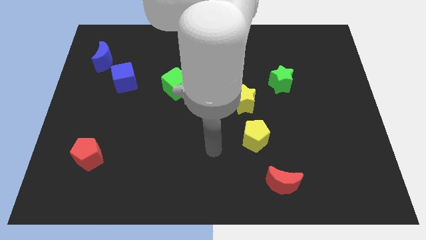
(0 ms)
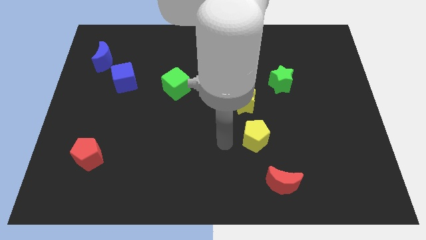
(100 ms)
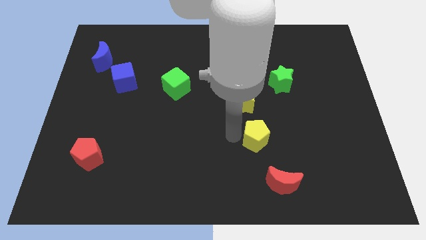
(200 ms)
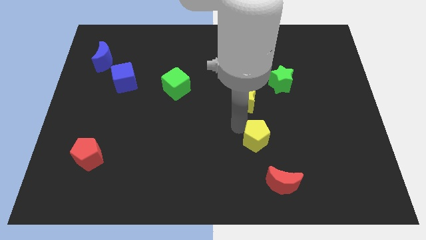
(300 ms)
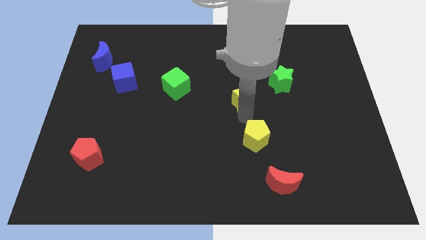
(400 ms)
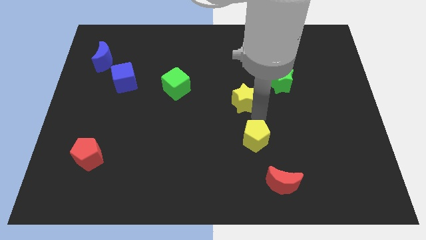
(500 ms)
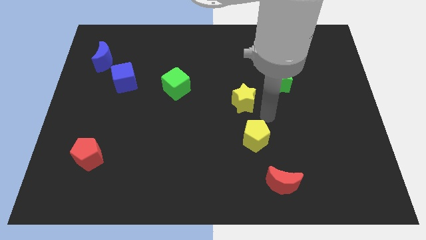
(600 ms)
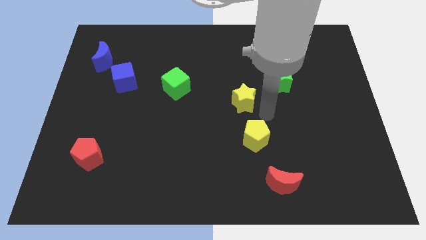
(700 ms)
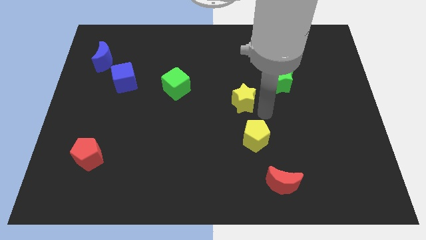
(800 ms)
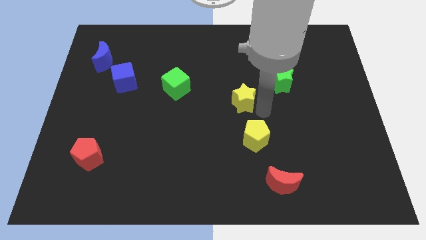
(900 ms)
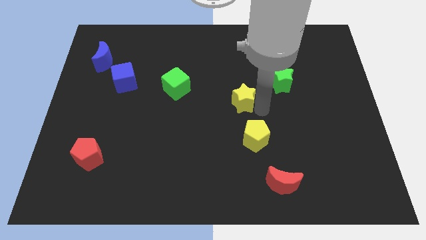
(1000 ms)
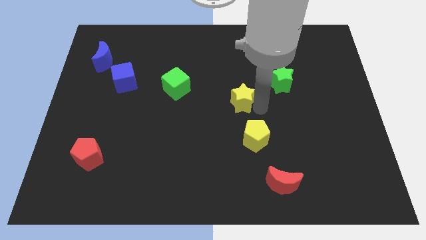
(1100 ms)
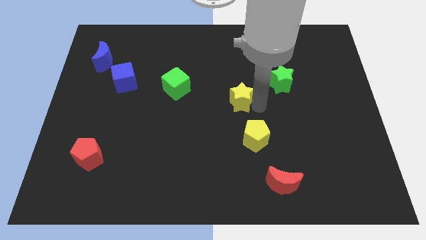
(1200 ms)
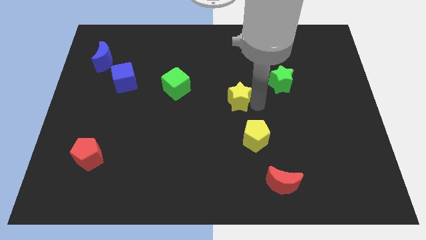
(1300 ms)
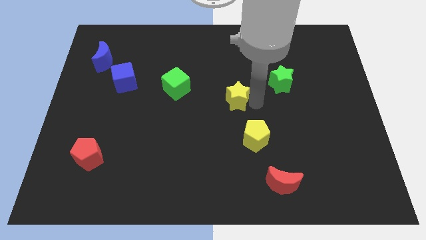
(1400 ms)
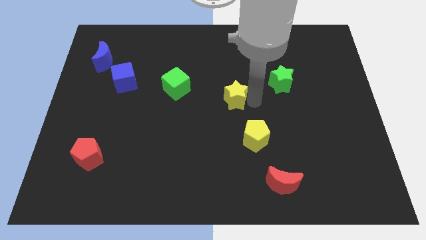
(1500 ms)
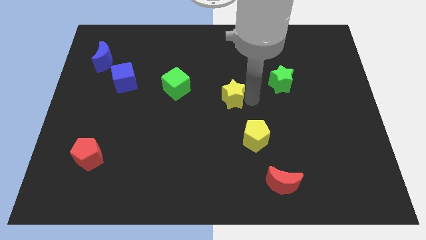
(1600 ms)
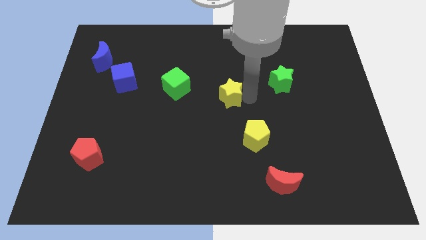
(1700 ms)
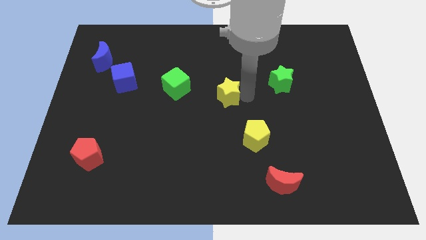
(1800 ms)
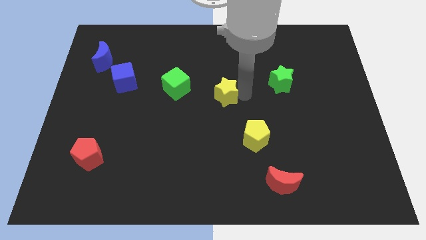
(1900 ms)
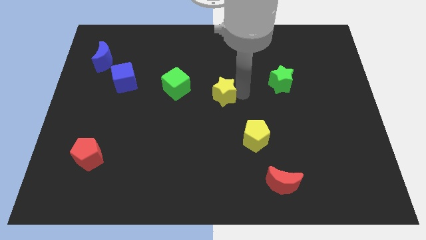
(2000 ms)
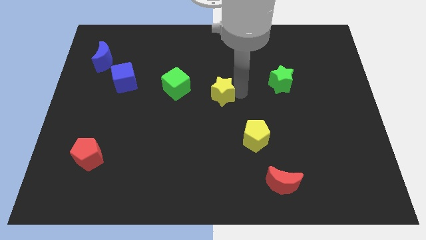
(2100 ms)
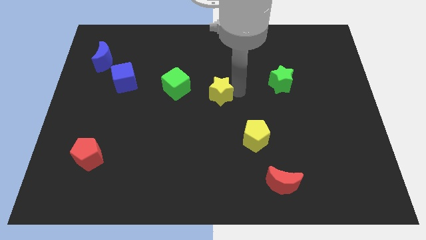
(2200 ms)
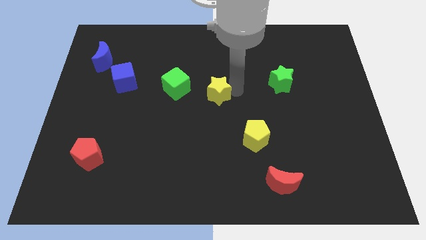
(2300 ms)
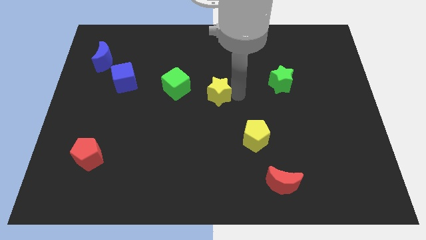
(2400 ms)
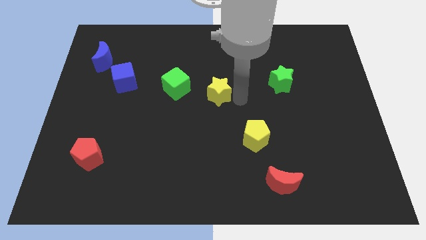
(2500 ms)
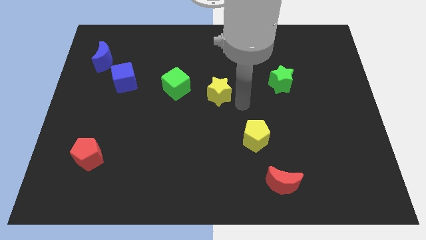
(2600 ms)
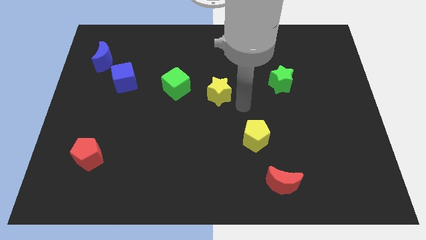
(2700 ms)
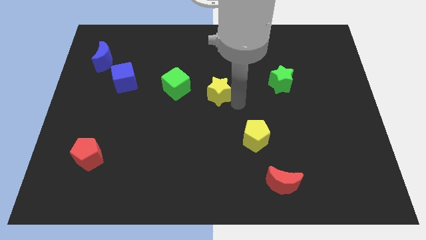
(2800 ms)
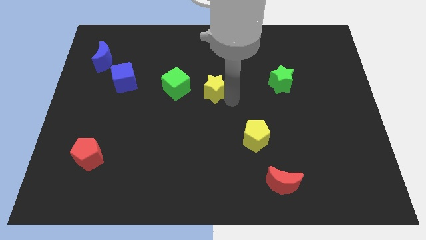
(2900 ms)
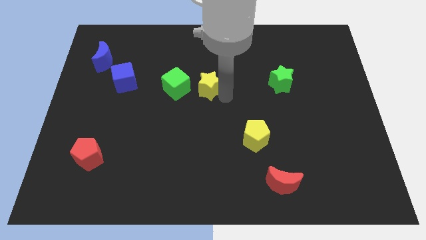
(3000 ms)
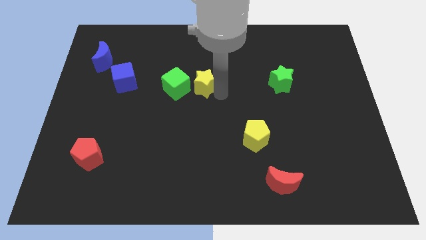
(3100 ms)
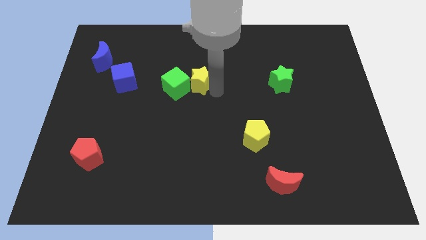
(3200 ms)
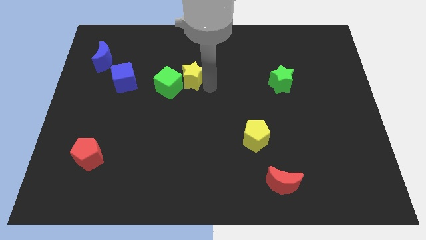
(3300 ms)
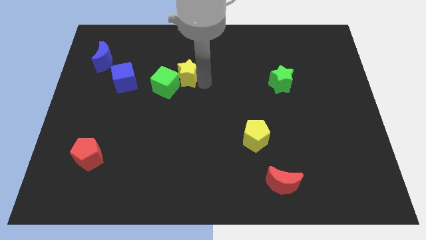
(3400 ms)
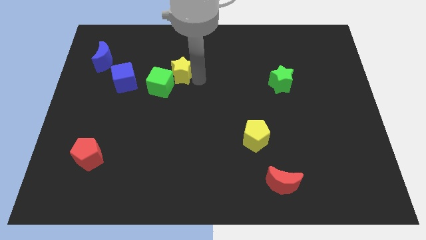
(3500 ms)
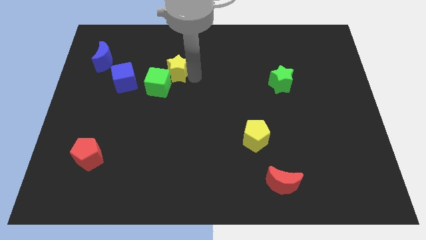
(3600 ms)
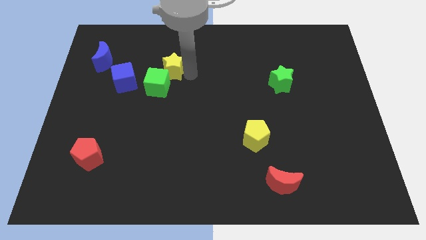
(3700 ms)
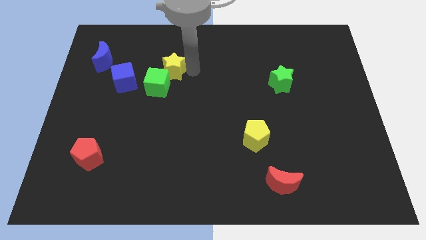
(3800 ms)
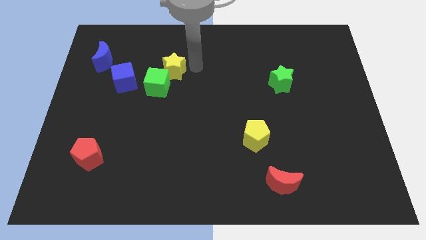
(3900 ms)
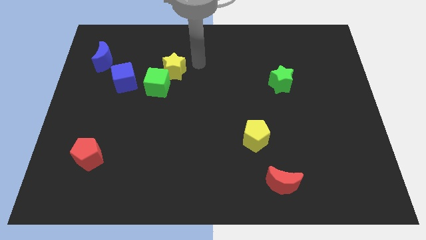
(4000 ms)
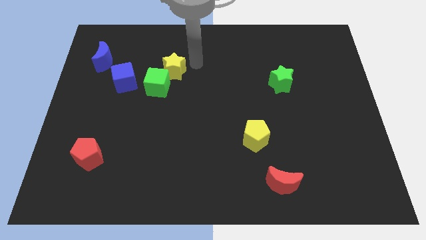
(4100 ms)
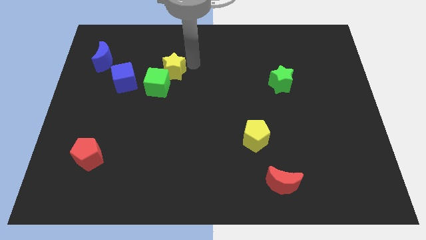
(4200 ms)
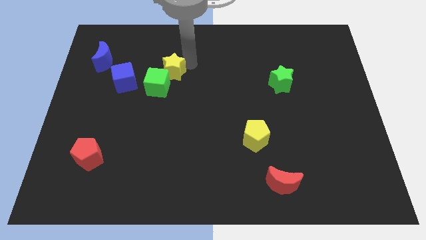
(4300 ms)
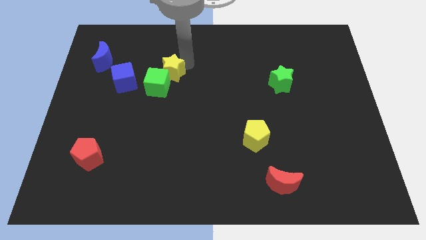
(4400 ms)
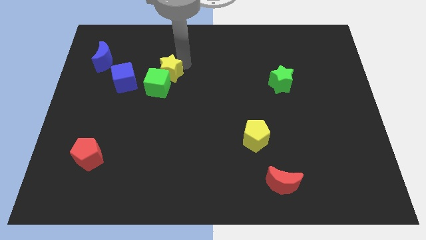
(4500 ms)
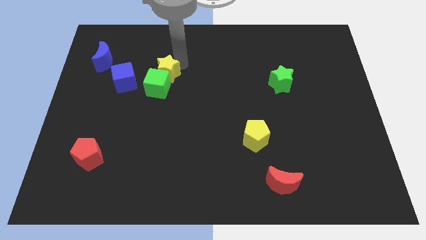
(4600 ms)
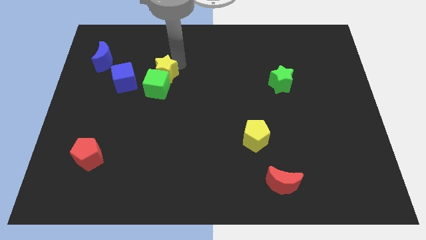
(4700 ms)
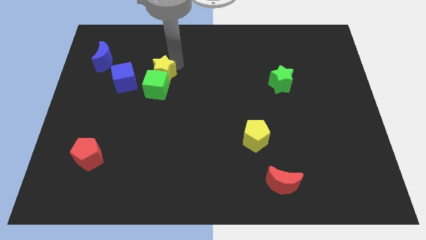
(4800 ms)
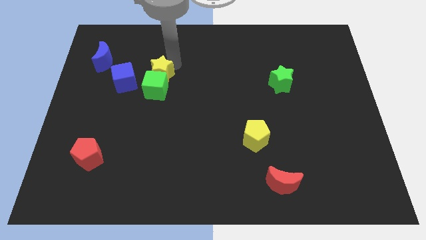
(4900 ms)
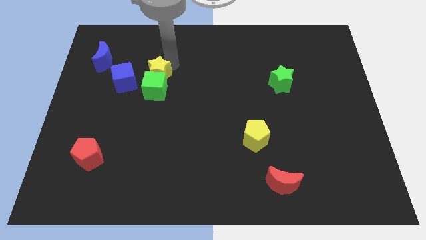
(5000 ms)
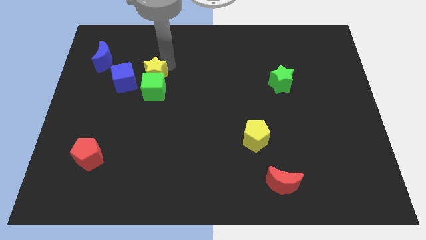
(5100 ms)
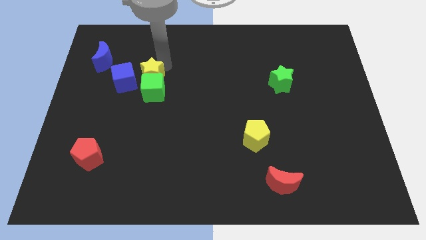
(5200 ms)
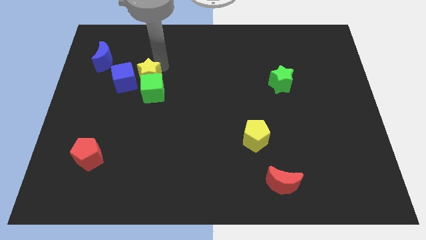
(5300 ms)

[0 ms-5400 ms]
put the yellow star to the blue cube

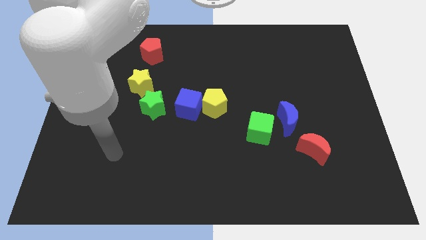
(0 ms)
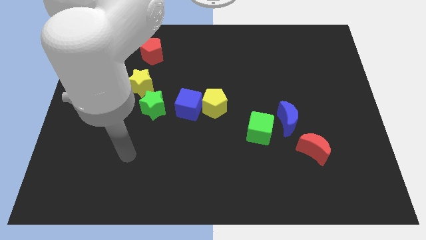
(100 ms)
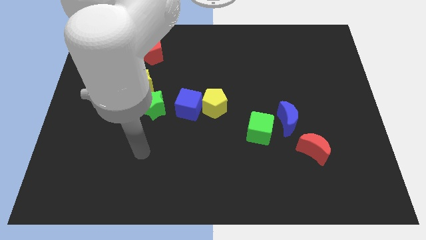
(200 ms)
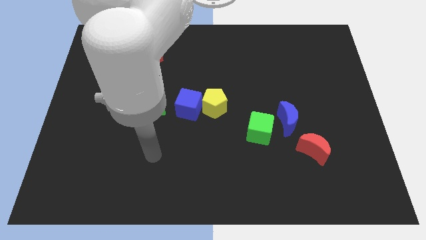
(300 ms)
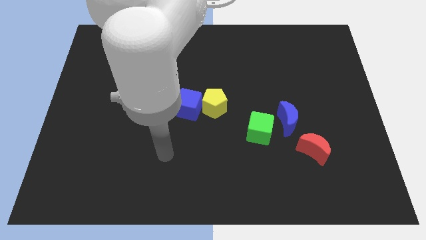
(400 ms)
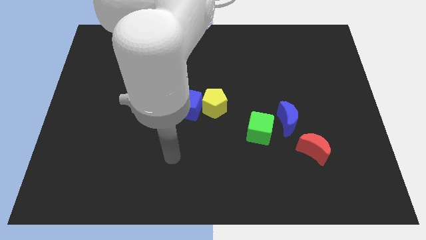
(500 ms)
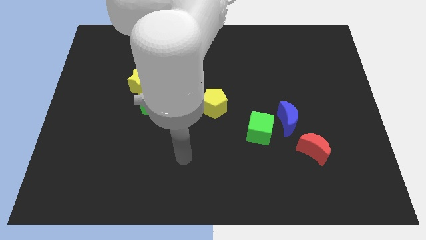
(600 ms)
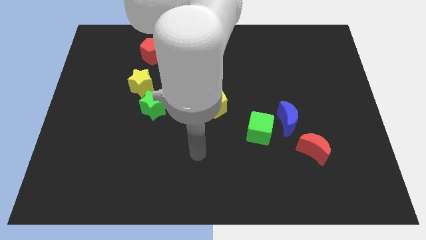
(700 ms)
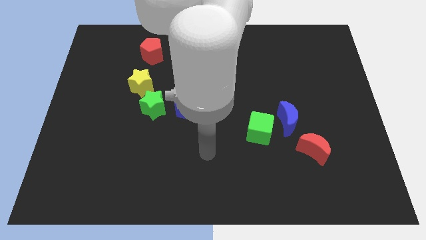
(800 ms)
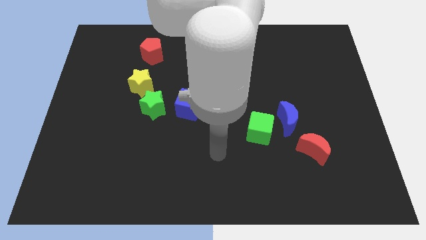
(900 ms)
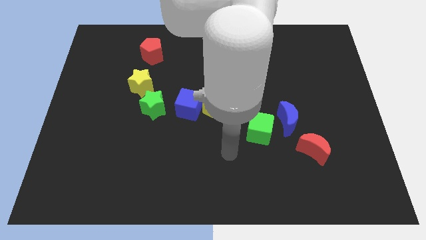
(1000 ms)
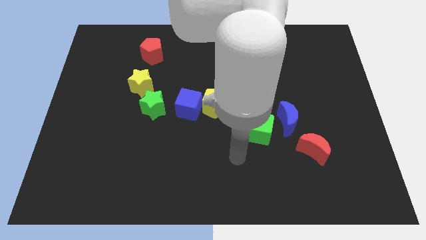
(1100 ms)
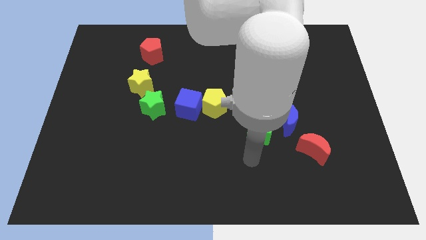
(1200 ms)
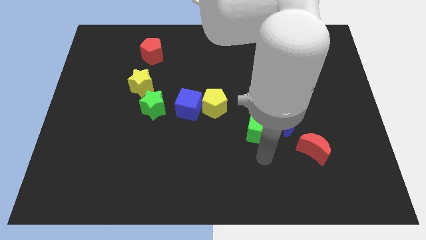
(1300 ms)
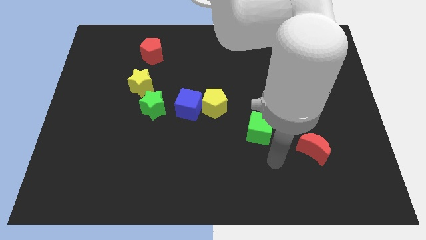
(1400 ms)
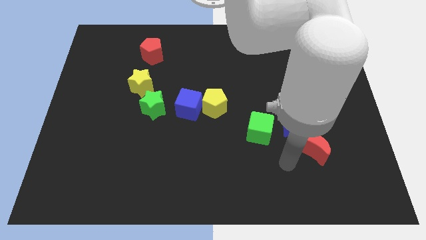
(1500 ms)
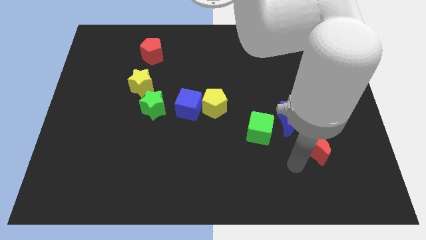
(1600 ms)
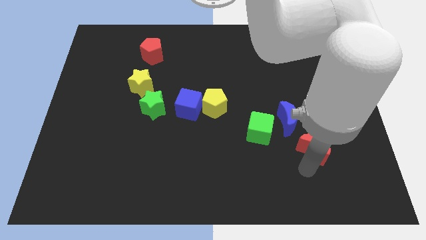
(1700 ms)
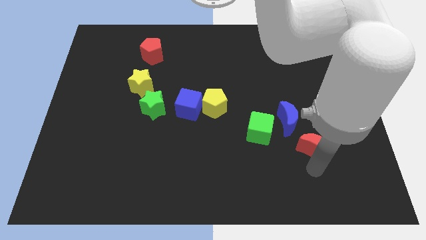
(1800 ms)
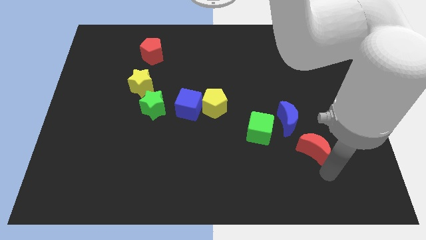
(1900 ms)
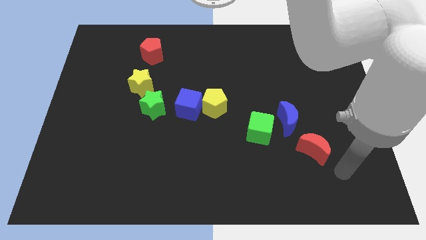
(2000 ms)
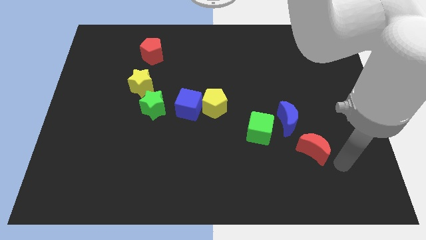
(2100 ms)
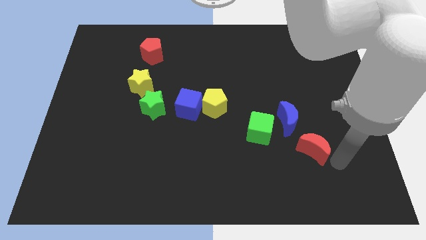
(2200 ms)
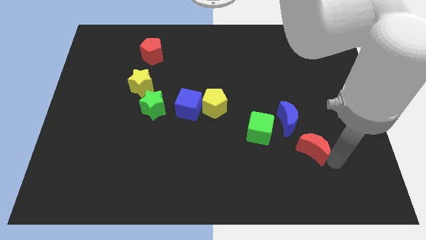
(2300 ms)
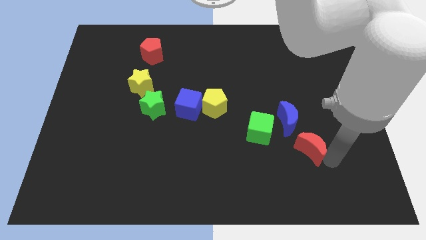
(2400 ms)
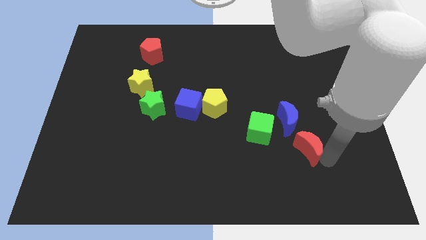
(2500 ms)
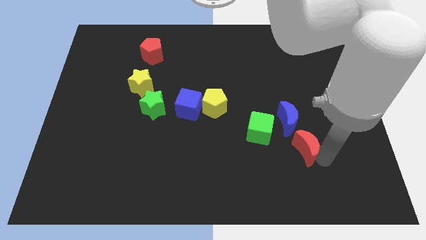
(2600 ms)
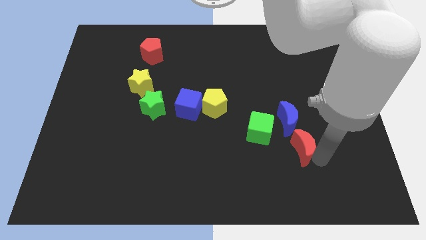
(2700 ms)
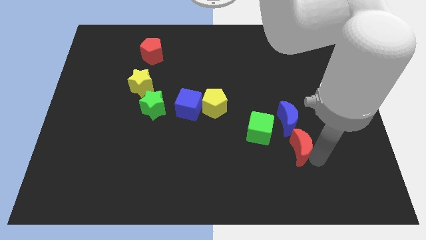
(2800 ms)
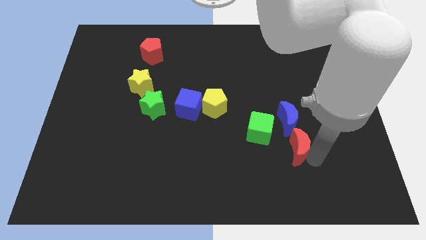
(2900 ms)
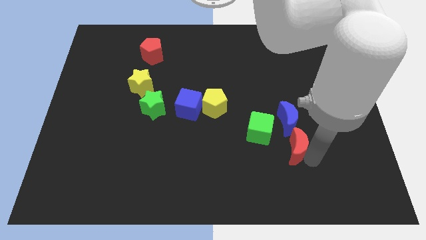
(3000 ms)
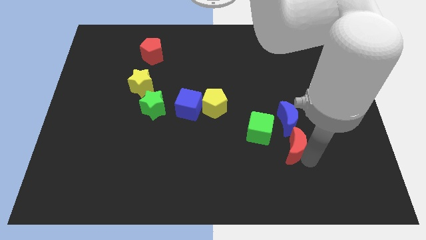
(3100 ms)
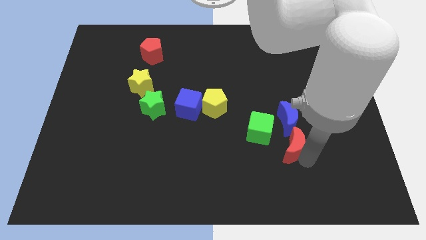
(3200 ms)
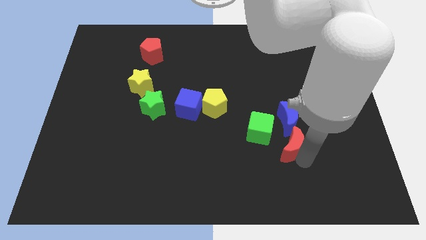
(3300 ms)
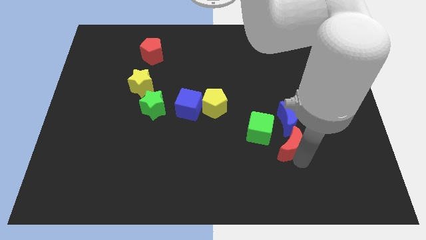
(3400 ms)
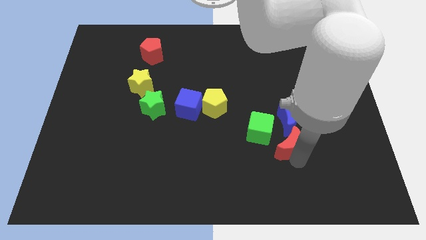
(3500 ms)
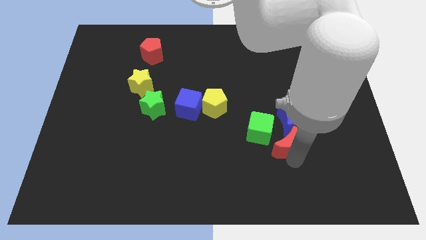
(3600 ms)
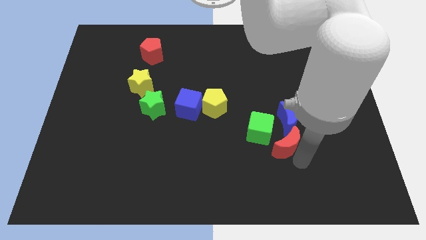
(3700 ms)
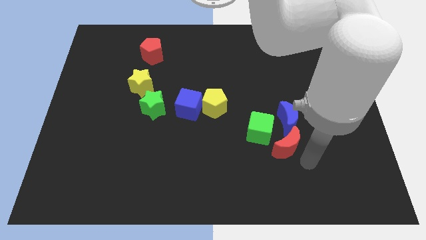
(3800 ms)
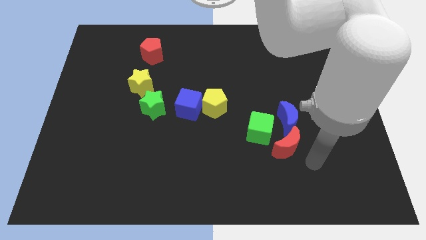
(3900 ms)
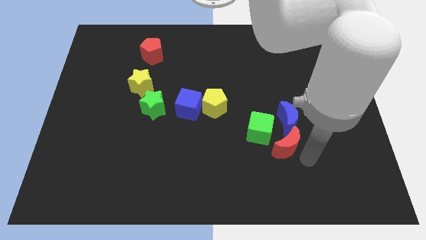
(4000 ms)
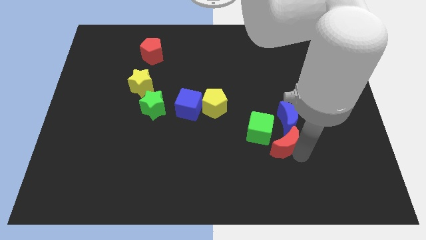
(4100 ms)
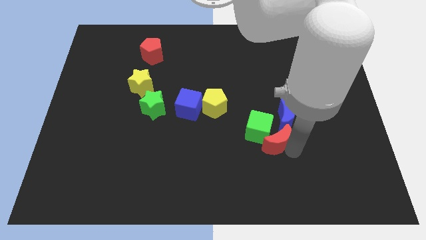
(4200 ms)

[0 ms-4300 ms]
move the red moon close to the green cube
